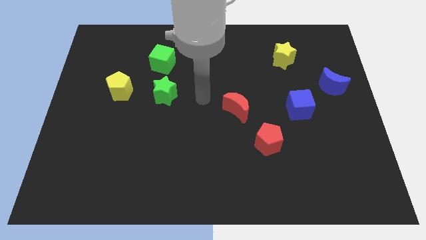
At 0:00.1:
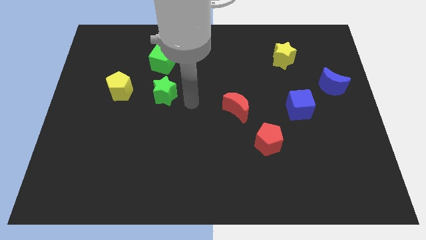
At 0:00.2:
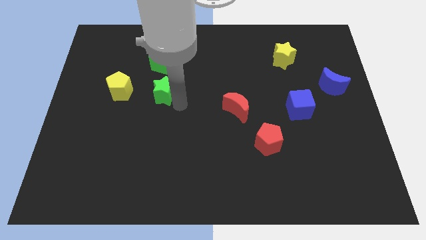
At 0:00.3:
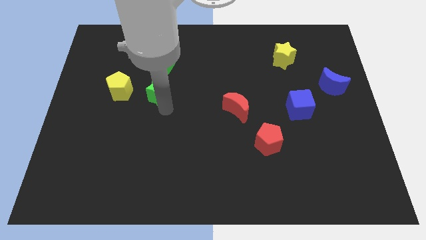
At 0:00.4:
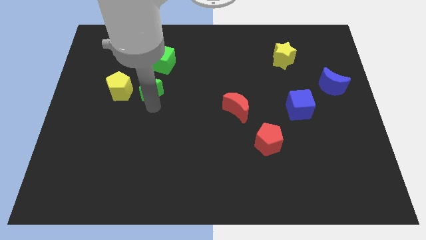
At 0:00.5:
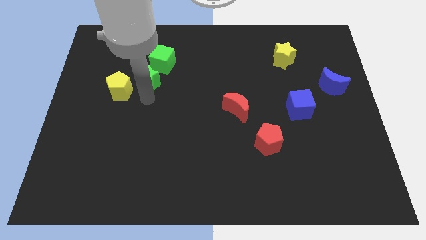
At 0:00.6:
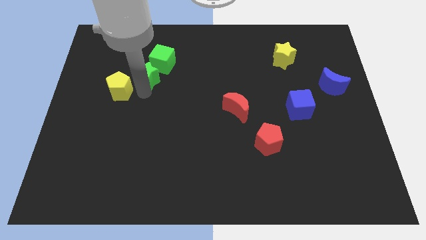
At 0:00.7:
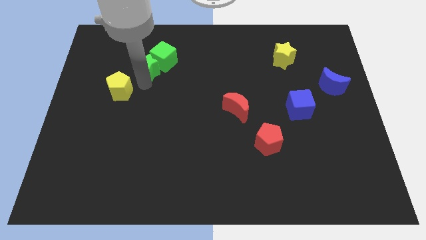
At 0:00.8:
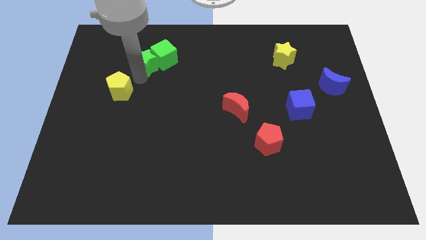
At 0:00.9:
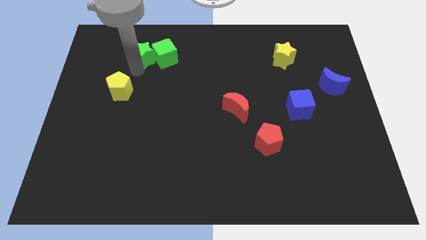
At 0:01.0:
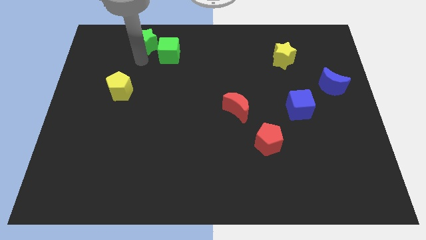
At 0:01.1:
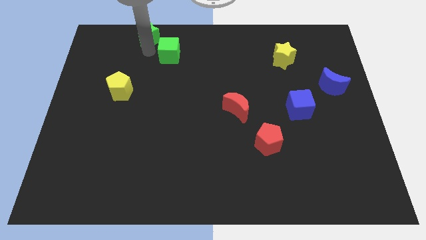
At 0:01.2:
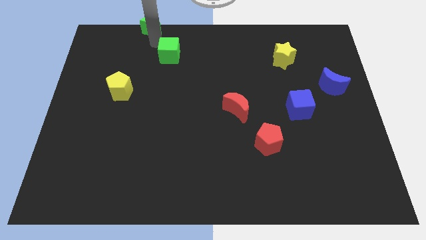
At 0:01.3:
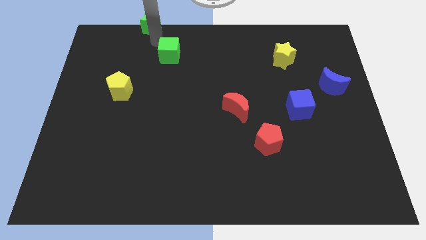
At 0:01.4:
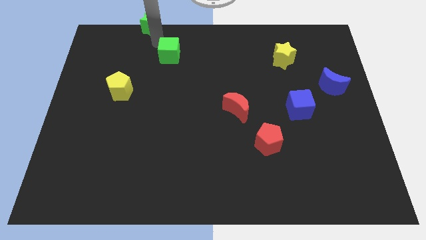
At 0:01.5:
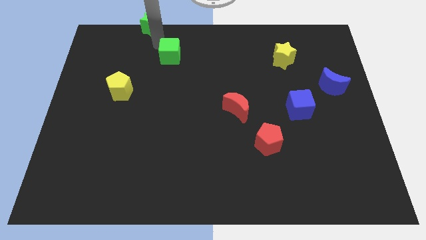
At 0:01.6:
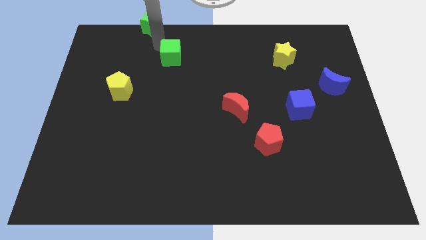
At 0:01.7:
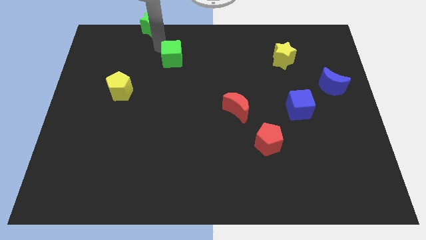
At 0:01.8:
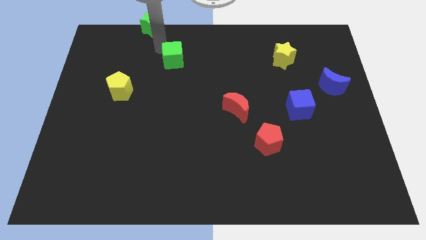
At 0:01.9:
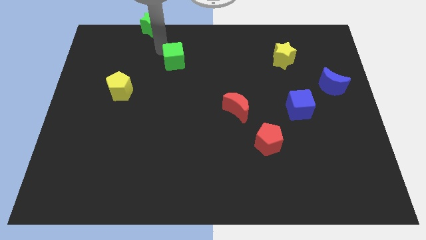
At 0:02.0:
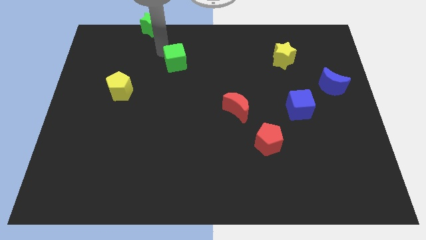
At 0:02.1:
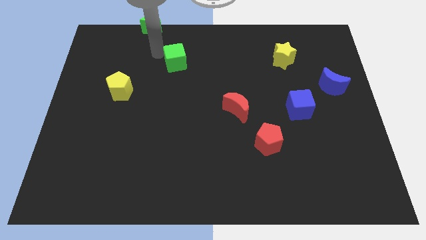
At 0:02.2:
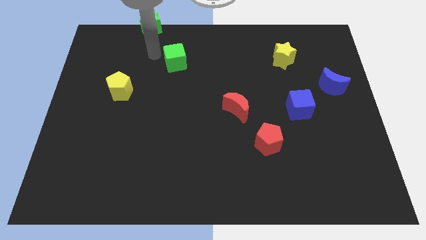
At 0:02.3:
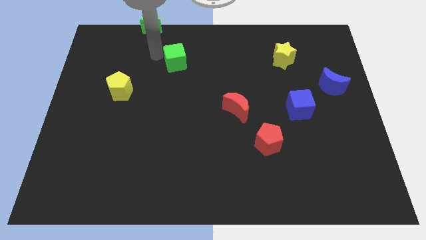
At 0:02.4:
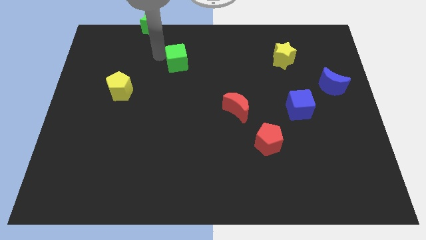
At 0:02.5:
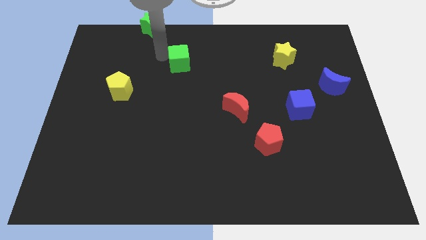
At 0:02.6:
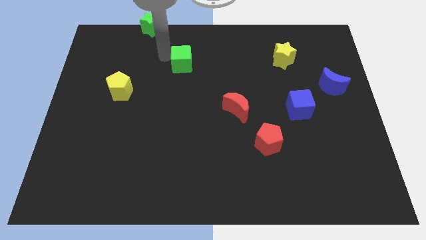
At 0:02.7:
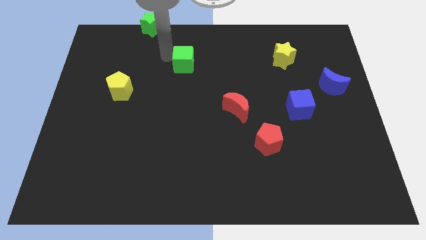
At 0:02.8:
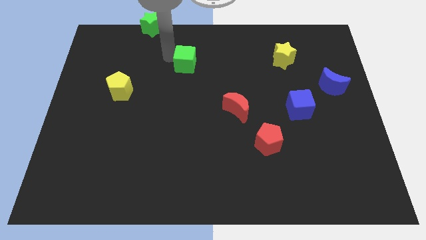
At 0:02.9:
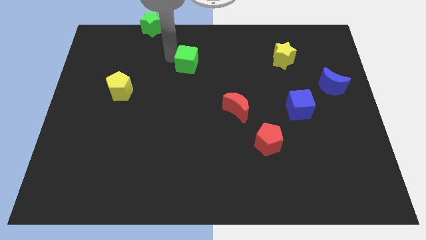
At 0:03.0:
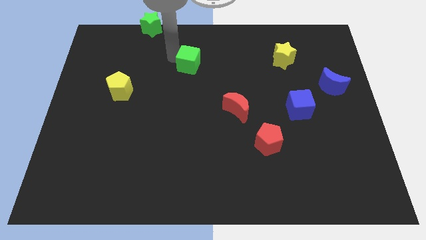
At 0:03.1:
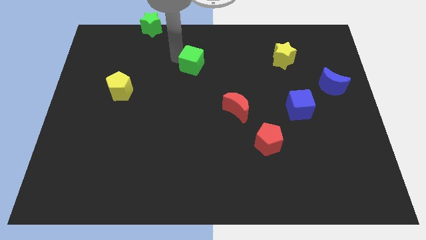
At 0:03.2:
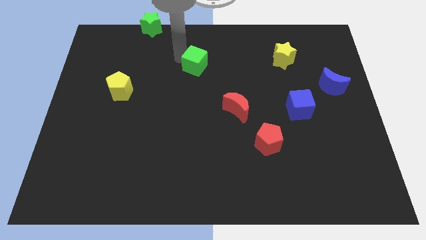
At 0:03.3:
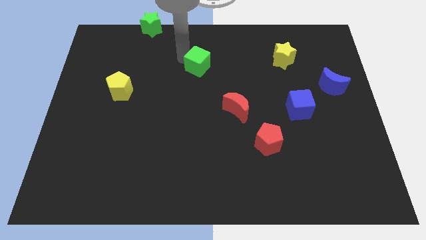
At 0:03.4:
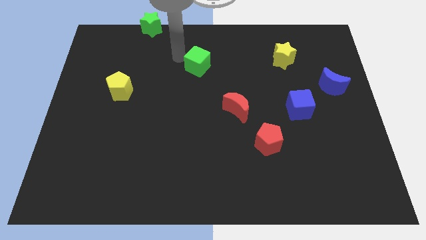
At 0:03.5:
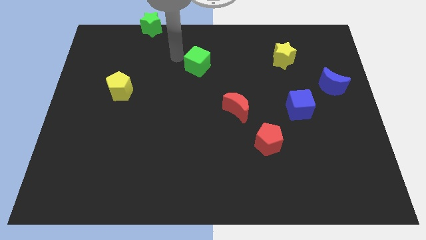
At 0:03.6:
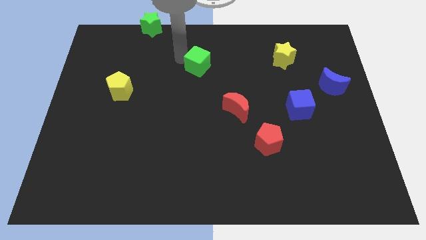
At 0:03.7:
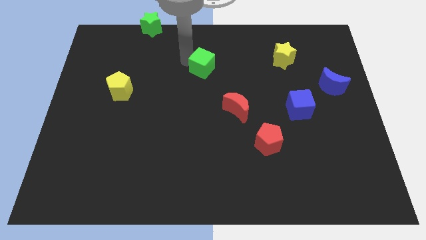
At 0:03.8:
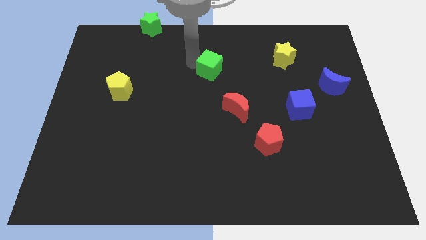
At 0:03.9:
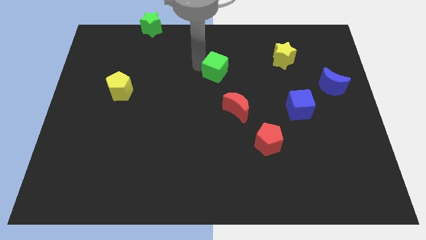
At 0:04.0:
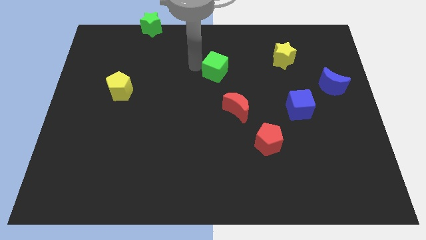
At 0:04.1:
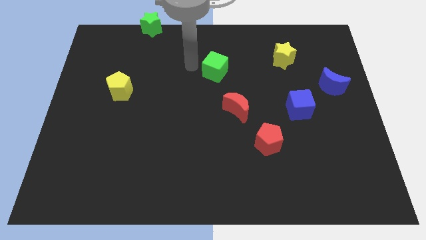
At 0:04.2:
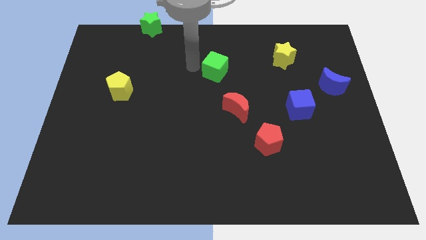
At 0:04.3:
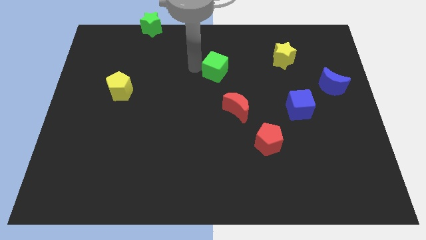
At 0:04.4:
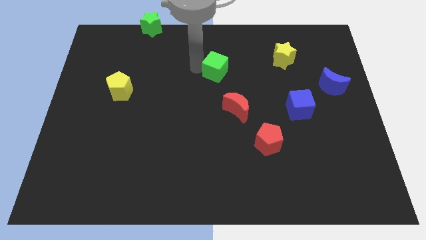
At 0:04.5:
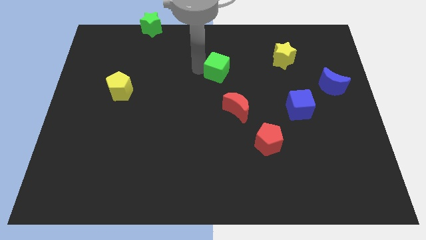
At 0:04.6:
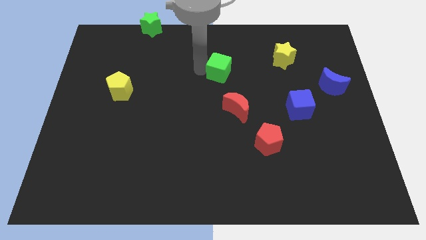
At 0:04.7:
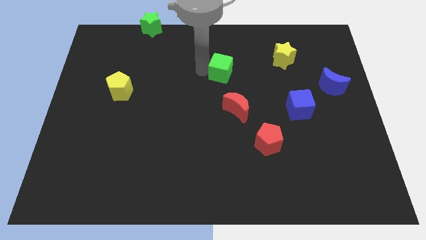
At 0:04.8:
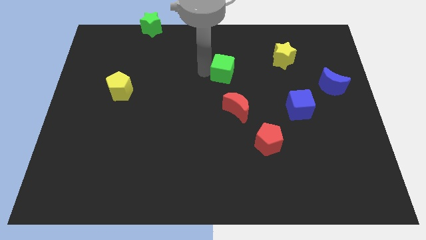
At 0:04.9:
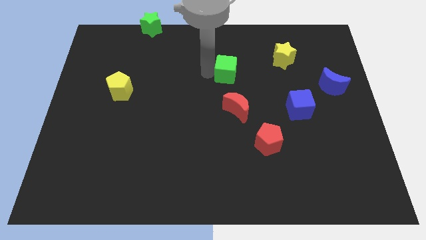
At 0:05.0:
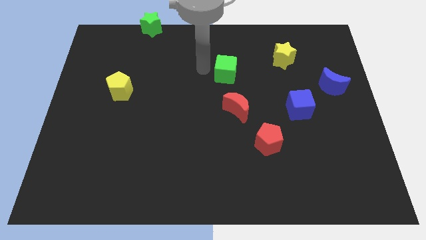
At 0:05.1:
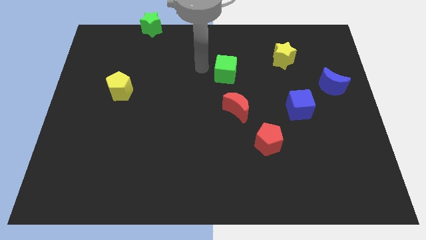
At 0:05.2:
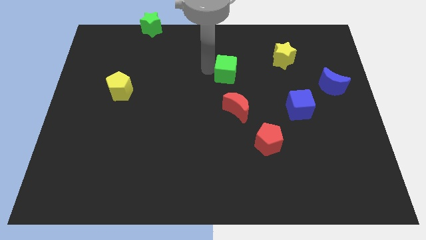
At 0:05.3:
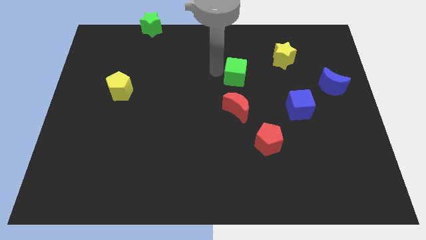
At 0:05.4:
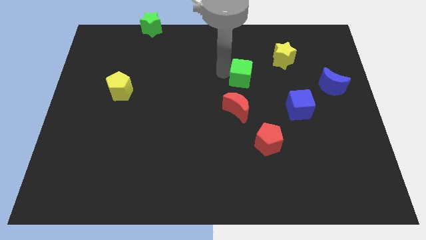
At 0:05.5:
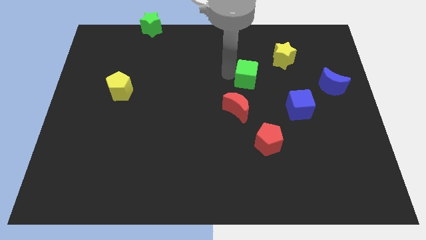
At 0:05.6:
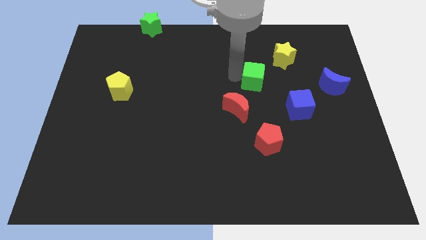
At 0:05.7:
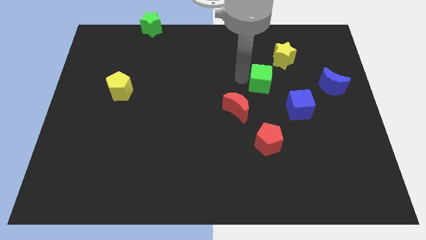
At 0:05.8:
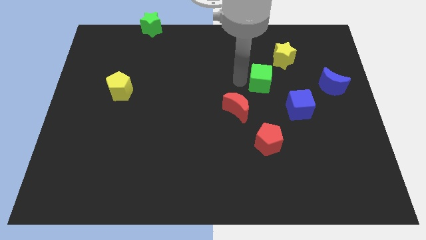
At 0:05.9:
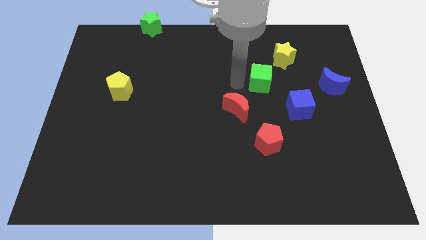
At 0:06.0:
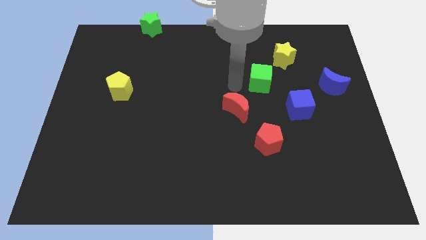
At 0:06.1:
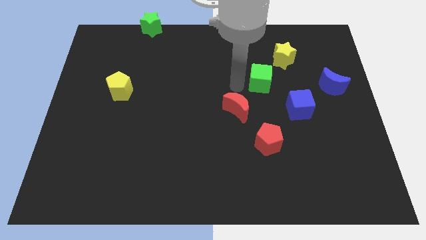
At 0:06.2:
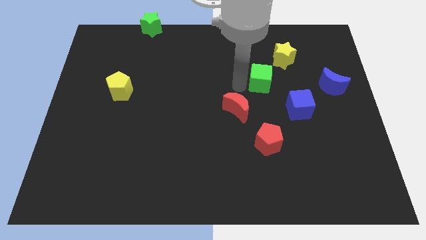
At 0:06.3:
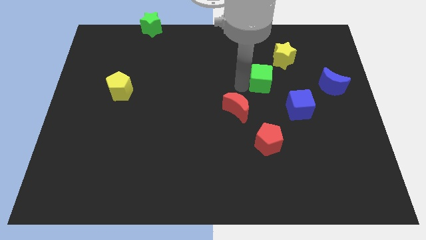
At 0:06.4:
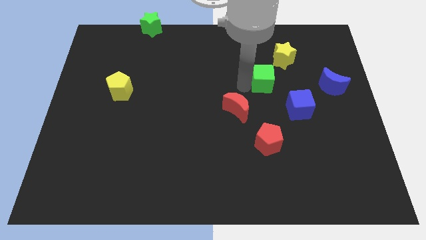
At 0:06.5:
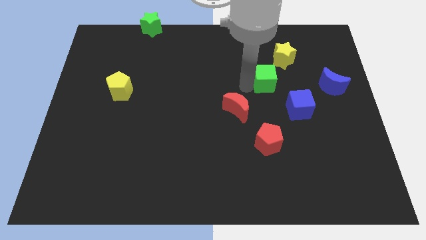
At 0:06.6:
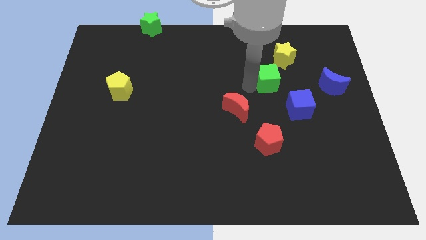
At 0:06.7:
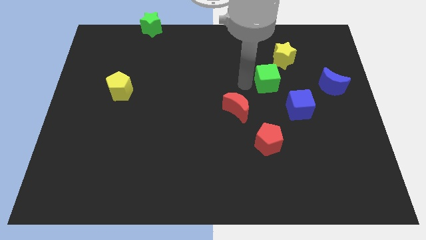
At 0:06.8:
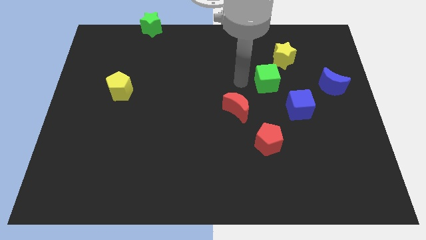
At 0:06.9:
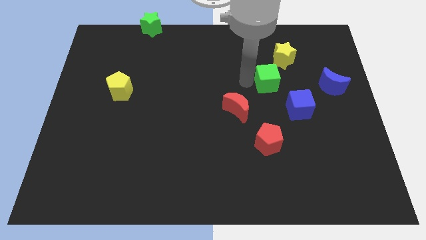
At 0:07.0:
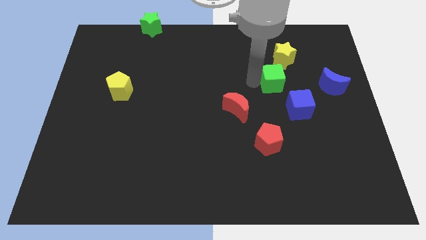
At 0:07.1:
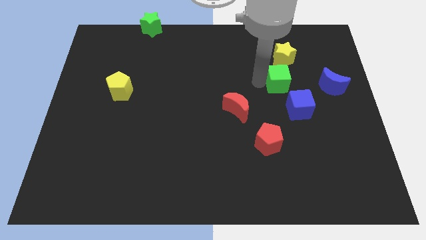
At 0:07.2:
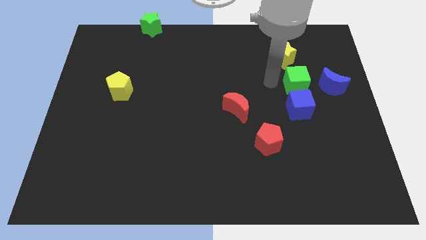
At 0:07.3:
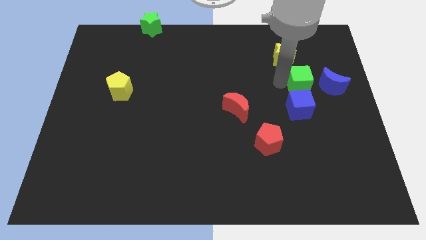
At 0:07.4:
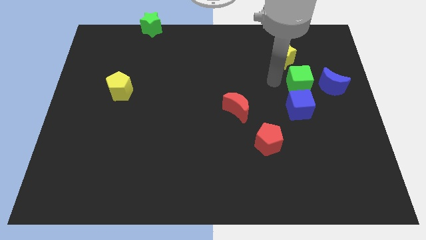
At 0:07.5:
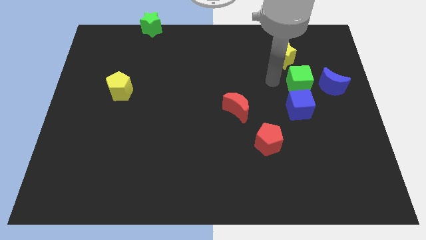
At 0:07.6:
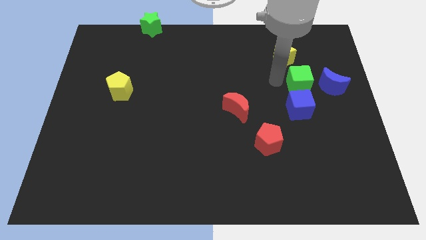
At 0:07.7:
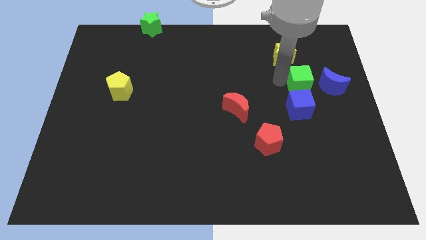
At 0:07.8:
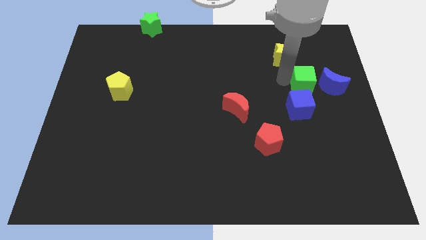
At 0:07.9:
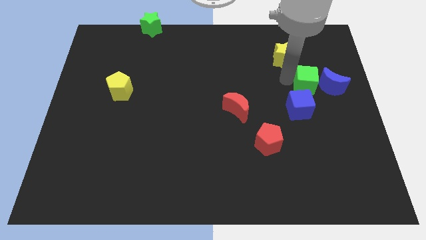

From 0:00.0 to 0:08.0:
move the green cube towards the blue moon
